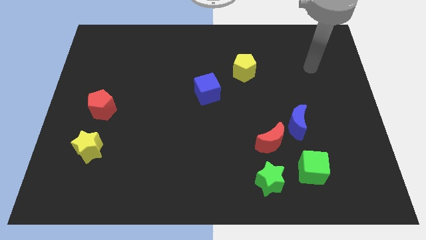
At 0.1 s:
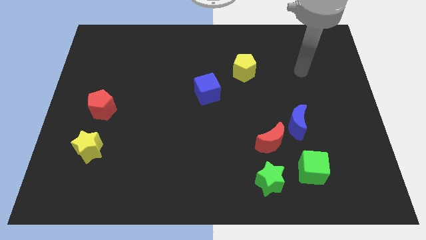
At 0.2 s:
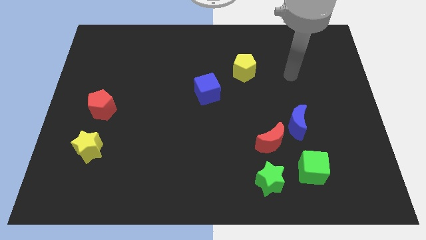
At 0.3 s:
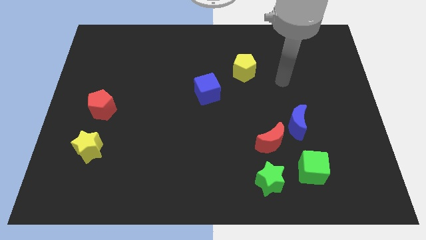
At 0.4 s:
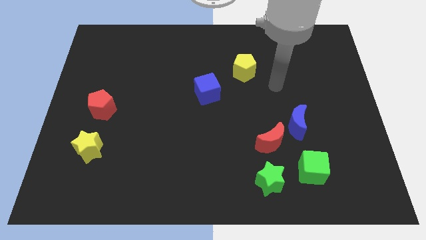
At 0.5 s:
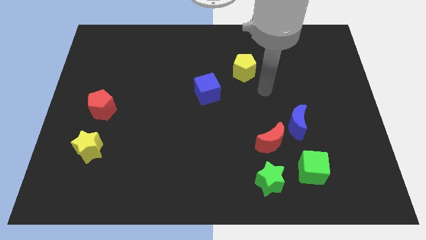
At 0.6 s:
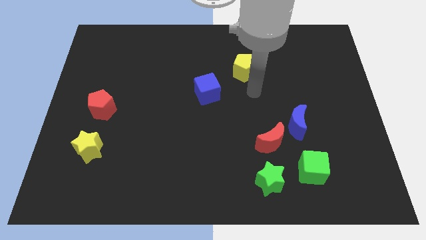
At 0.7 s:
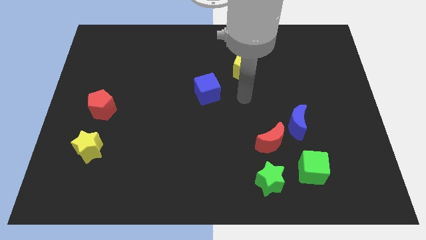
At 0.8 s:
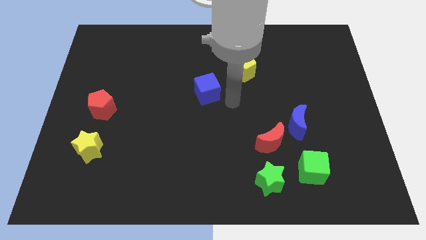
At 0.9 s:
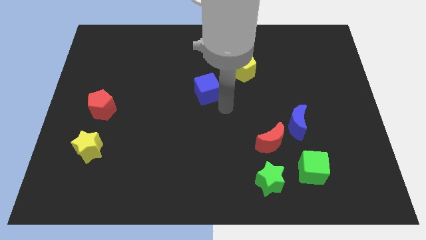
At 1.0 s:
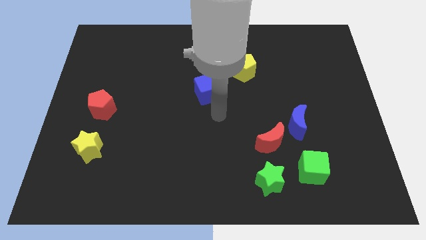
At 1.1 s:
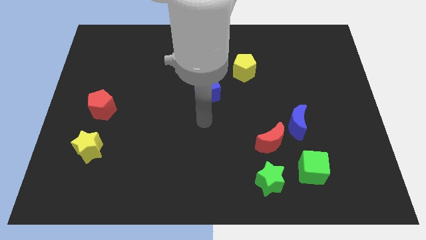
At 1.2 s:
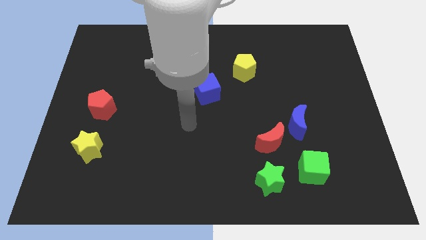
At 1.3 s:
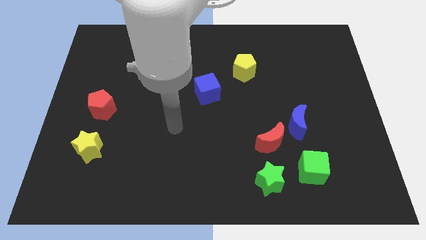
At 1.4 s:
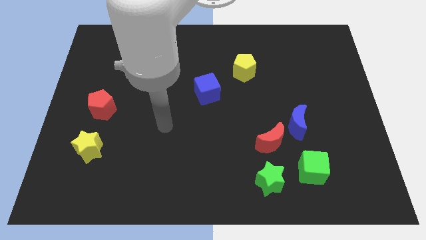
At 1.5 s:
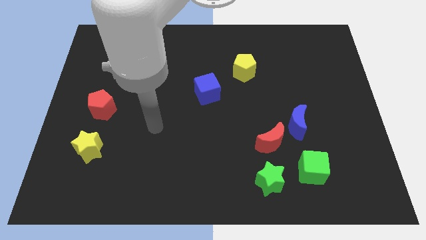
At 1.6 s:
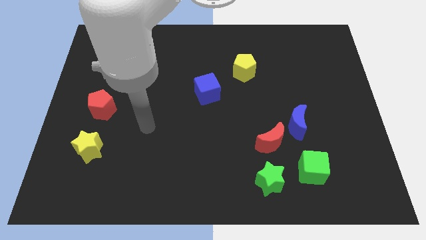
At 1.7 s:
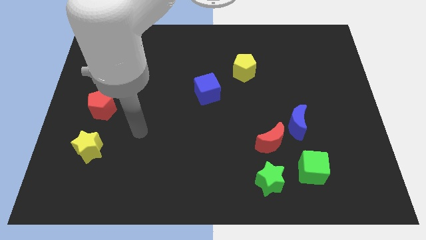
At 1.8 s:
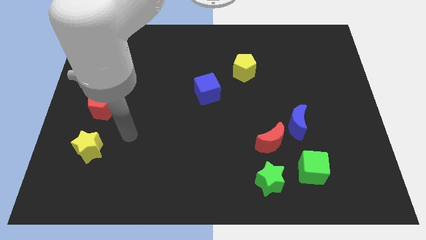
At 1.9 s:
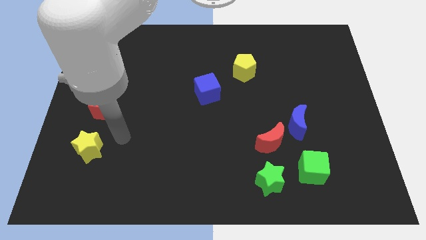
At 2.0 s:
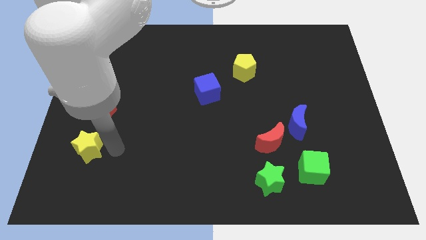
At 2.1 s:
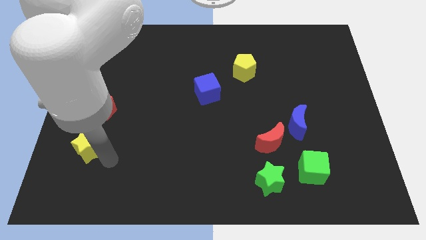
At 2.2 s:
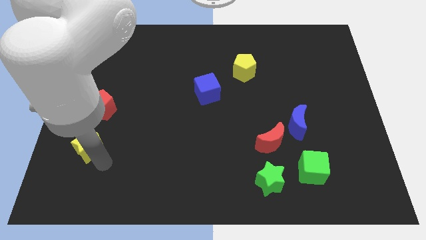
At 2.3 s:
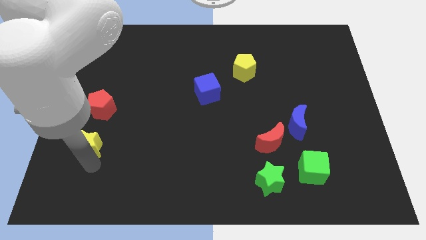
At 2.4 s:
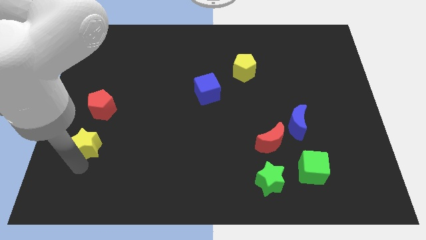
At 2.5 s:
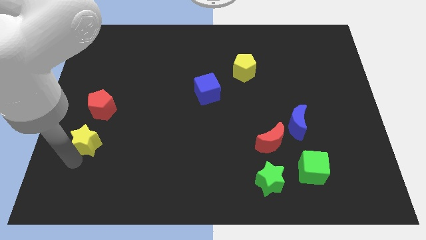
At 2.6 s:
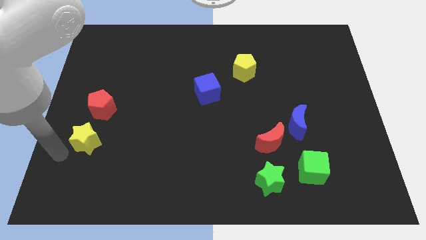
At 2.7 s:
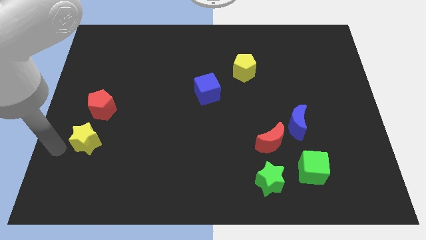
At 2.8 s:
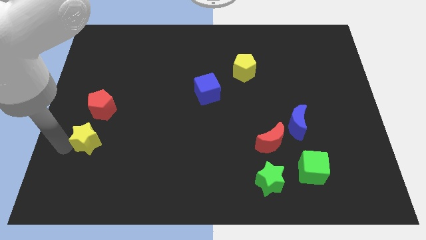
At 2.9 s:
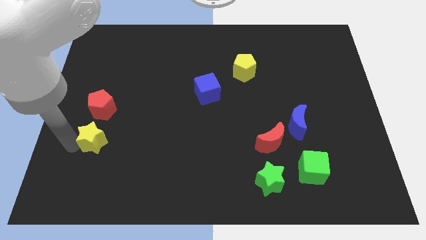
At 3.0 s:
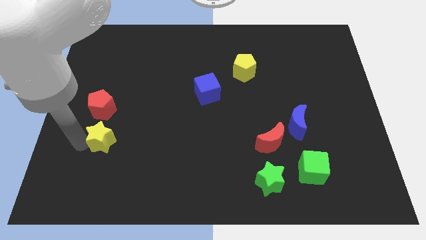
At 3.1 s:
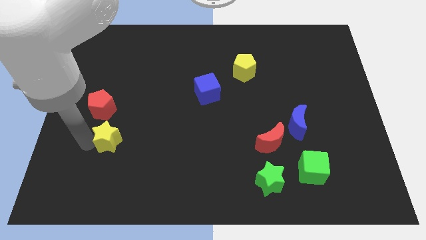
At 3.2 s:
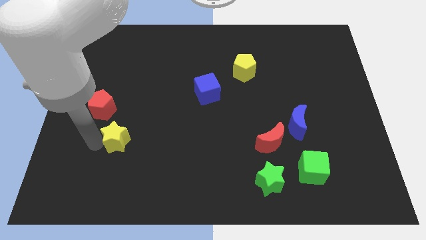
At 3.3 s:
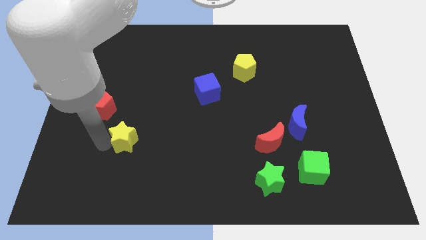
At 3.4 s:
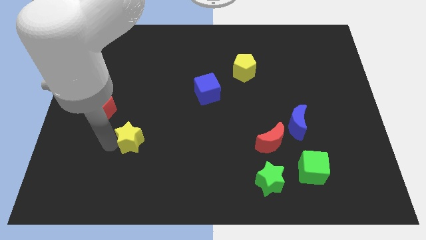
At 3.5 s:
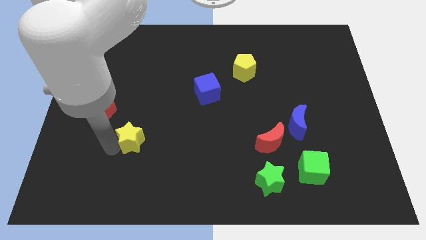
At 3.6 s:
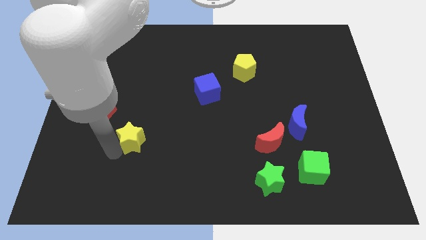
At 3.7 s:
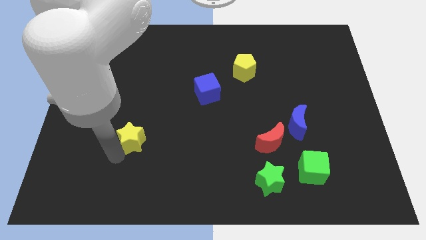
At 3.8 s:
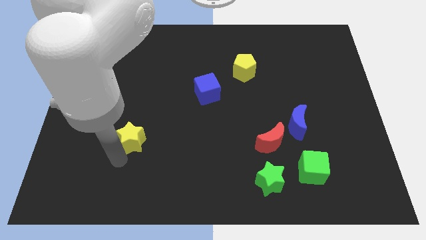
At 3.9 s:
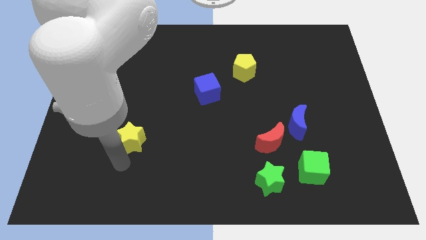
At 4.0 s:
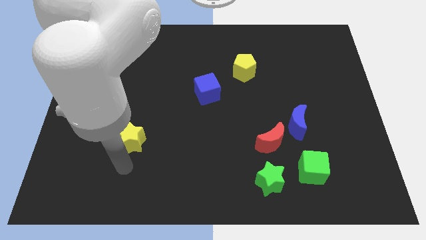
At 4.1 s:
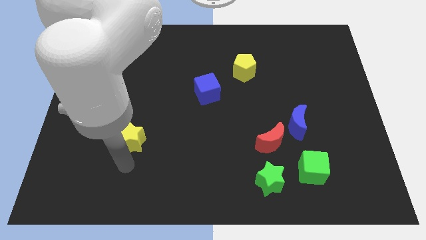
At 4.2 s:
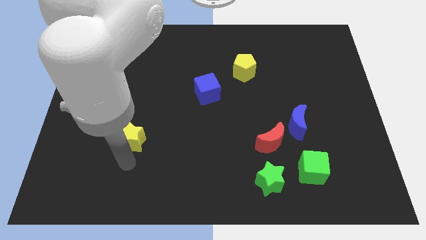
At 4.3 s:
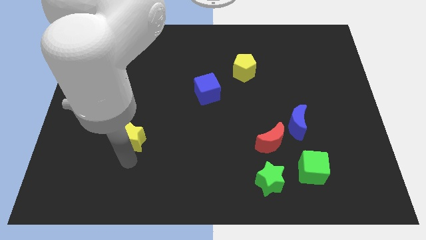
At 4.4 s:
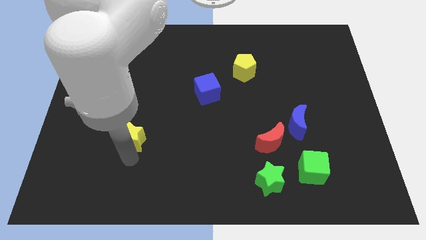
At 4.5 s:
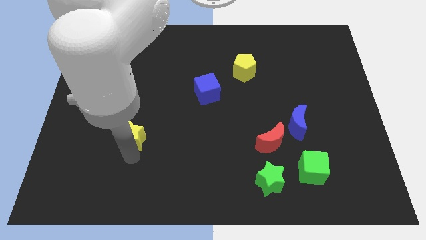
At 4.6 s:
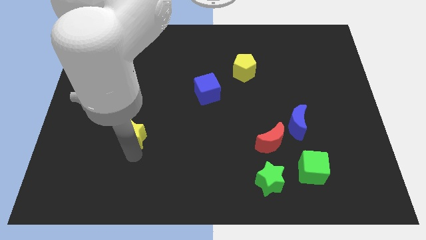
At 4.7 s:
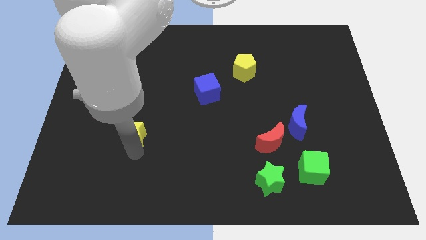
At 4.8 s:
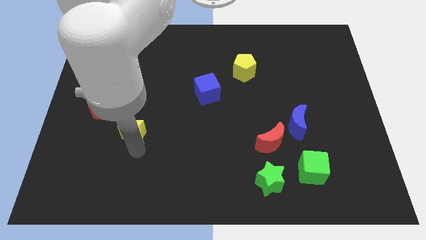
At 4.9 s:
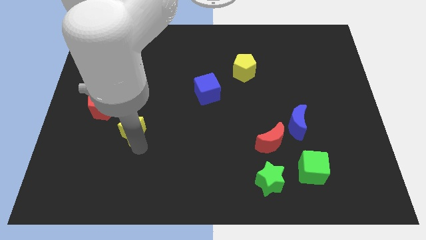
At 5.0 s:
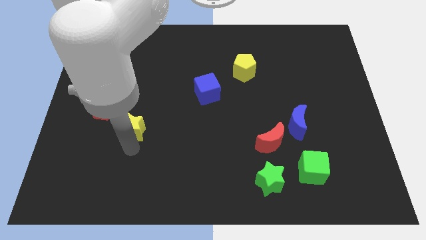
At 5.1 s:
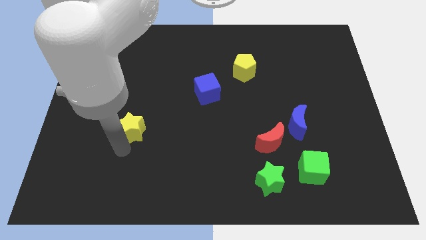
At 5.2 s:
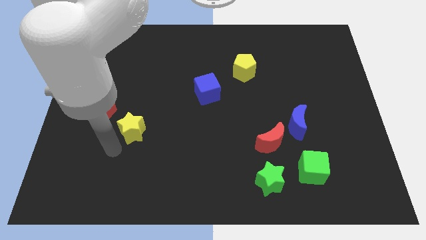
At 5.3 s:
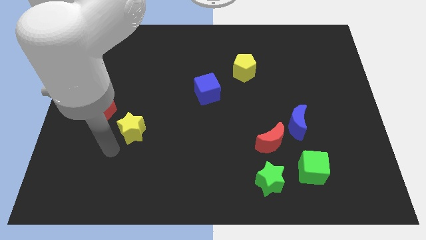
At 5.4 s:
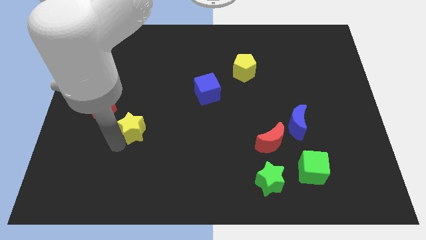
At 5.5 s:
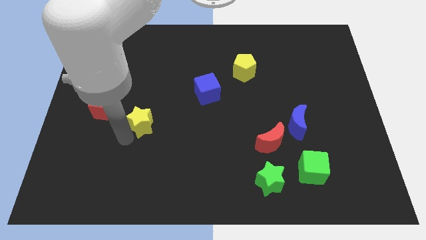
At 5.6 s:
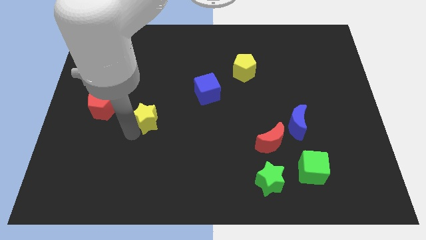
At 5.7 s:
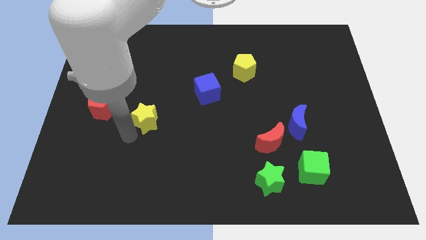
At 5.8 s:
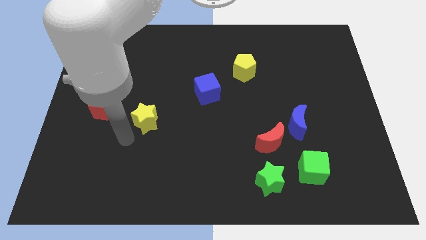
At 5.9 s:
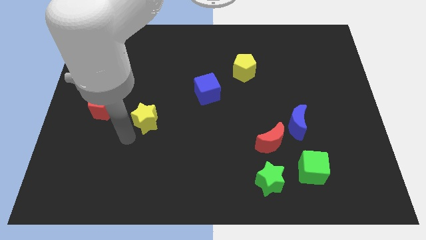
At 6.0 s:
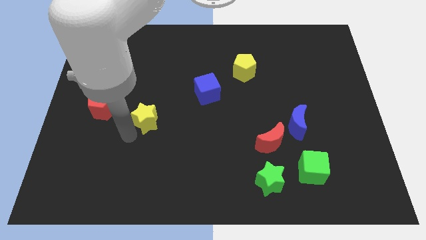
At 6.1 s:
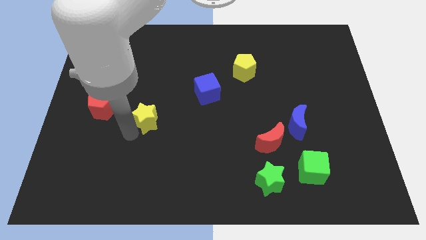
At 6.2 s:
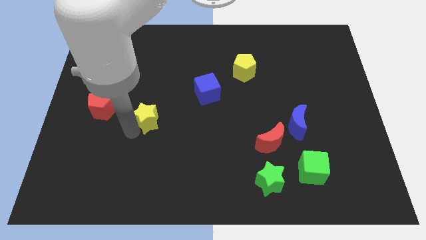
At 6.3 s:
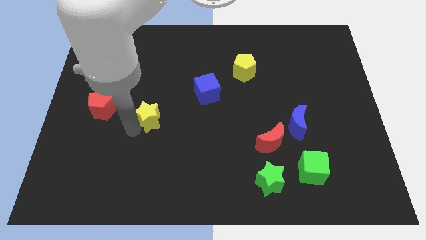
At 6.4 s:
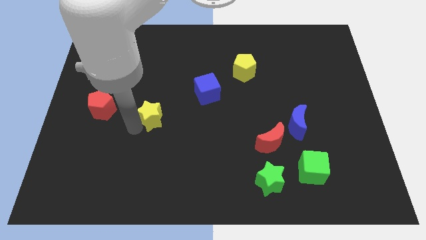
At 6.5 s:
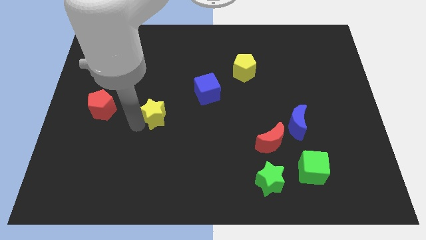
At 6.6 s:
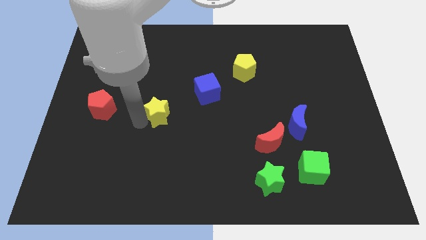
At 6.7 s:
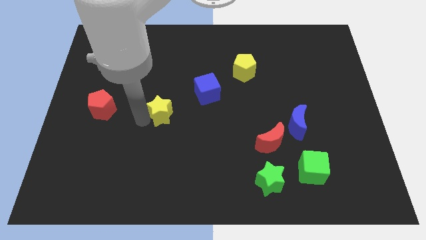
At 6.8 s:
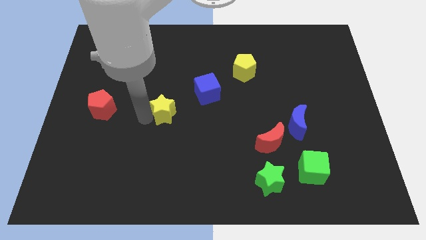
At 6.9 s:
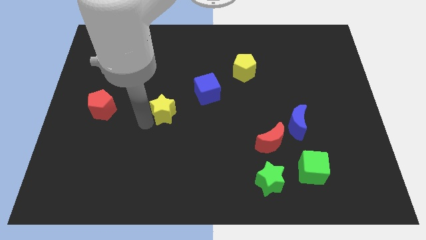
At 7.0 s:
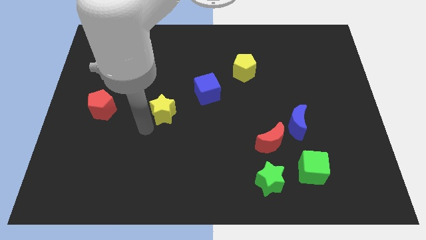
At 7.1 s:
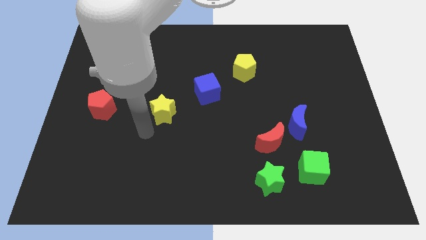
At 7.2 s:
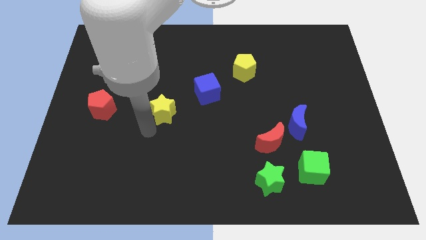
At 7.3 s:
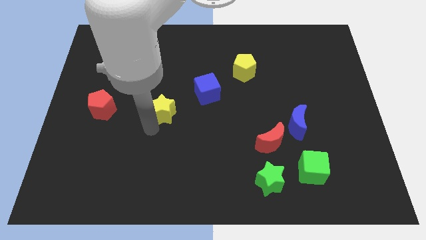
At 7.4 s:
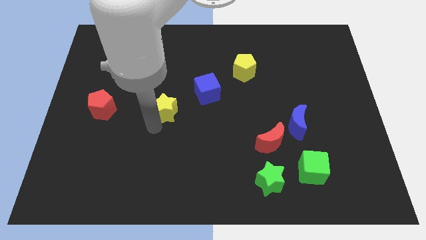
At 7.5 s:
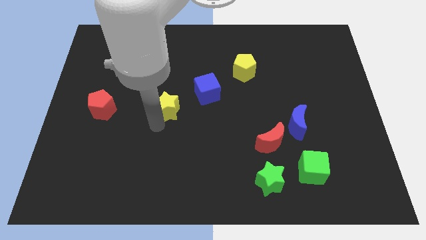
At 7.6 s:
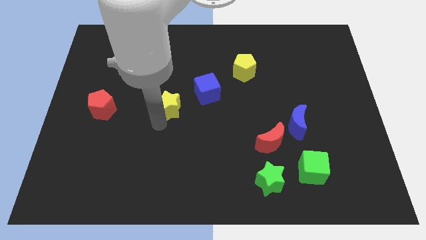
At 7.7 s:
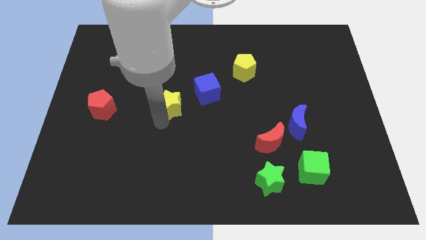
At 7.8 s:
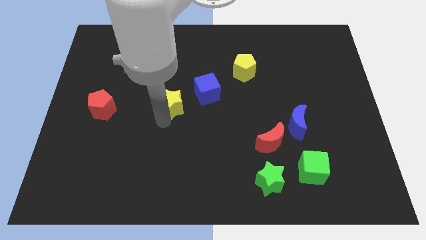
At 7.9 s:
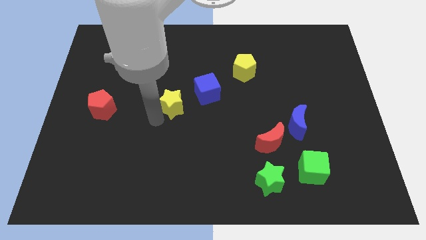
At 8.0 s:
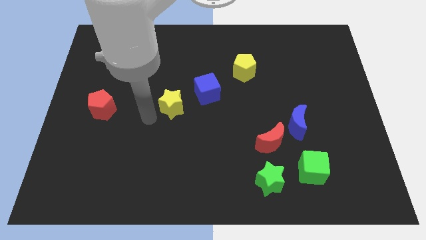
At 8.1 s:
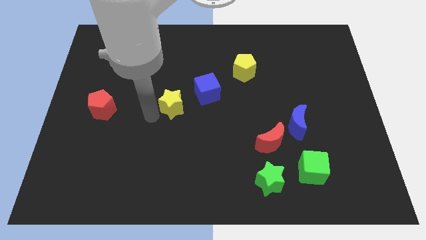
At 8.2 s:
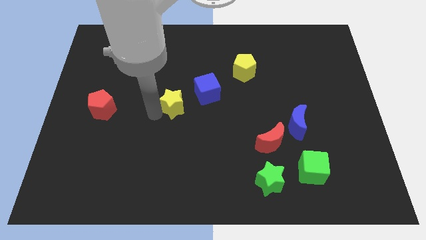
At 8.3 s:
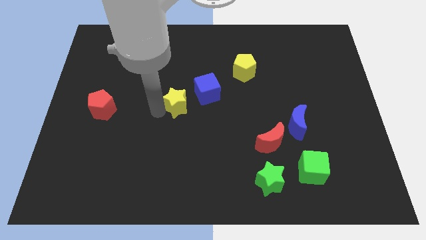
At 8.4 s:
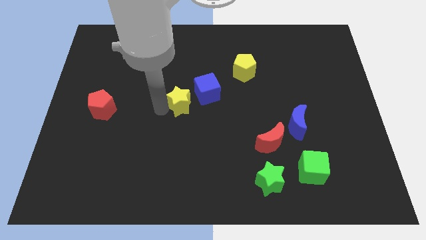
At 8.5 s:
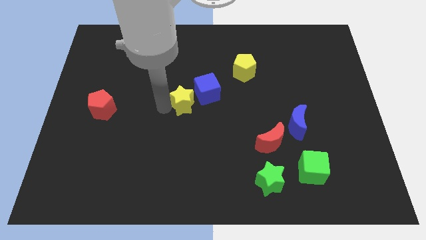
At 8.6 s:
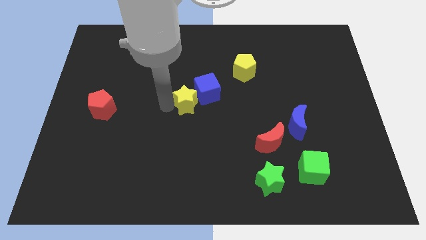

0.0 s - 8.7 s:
put the yellow star close to the blue cube
